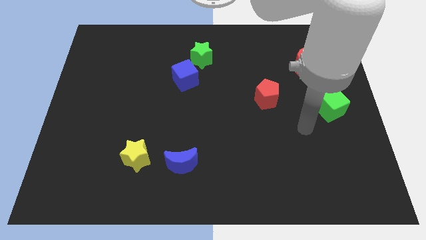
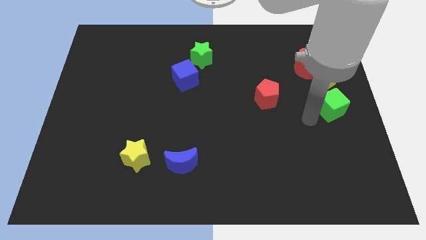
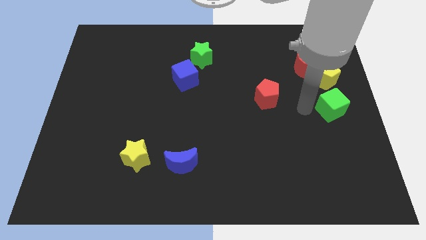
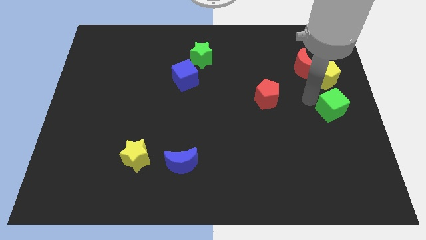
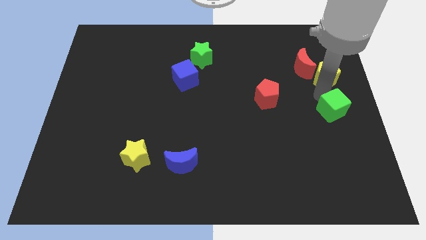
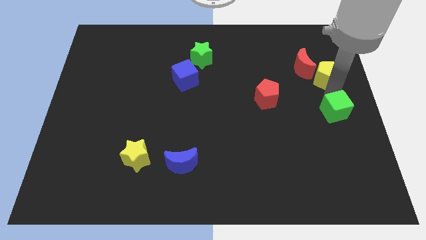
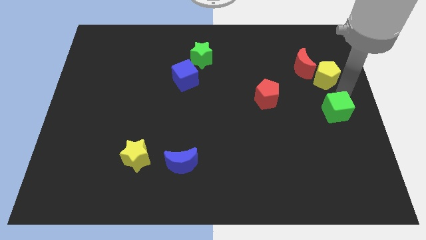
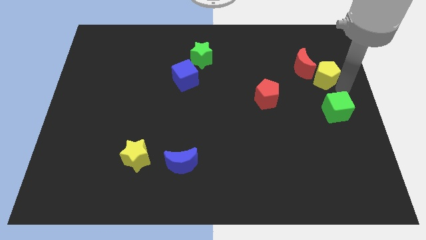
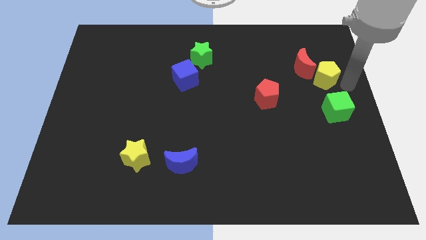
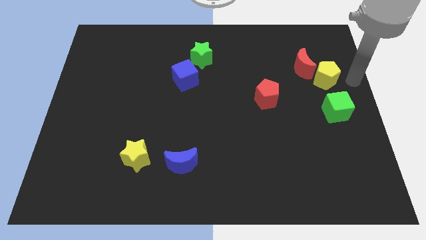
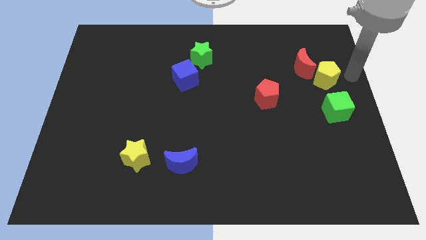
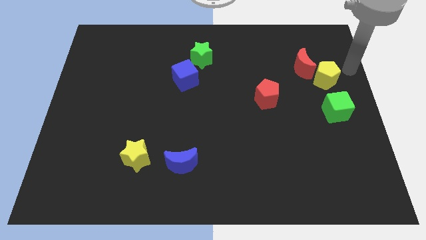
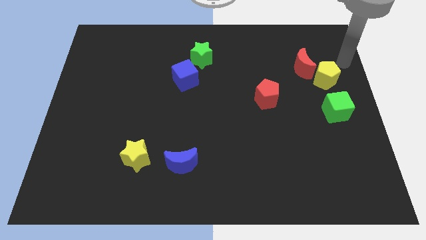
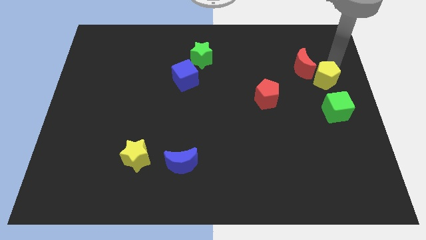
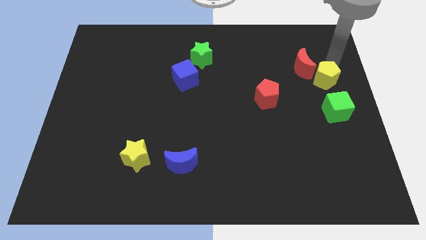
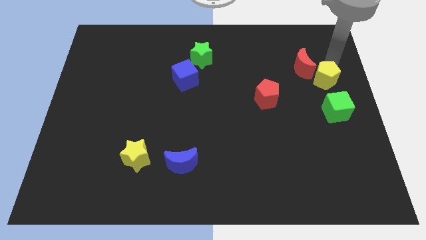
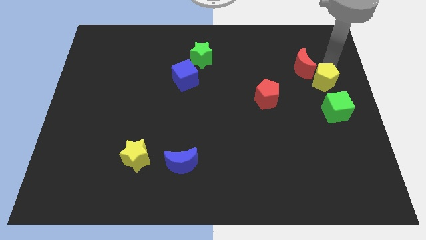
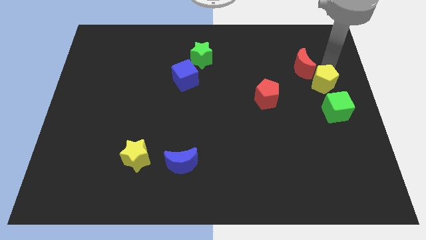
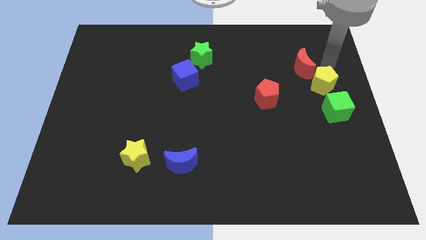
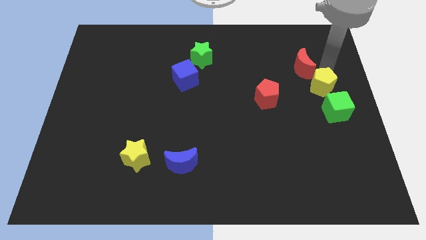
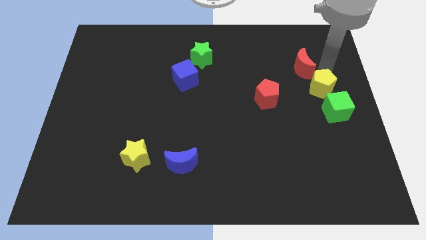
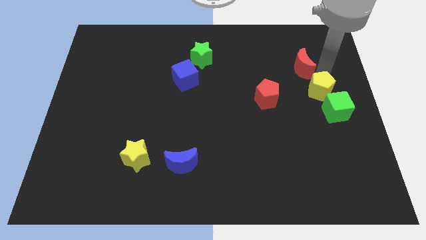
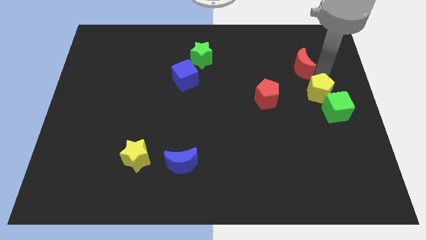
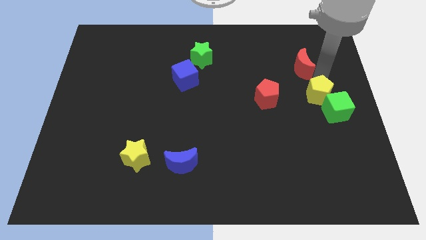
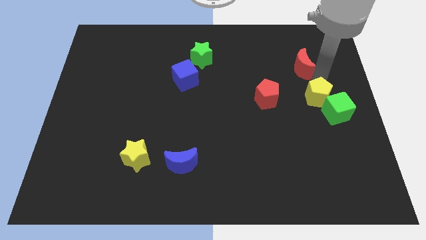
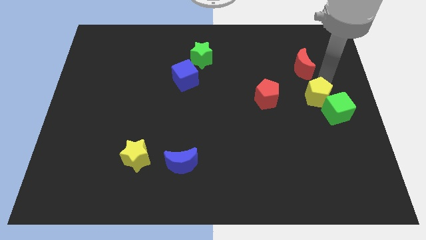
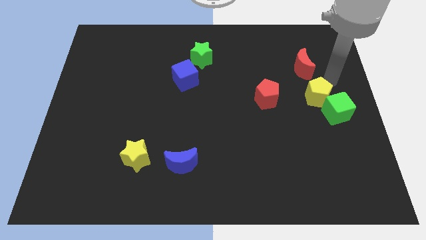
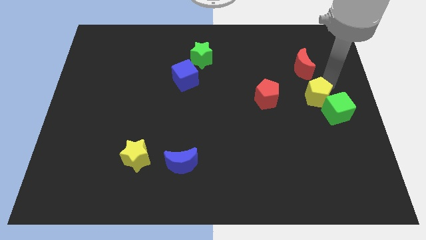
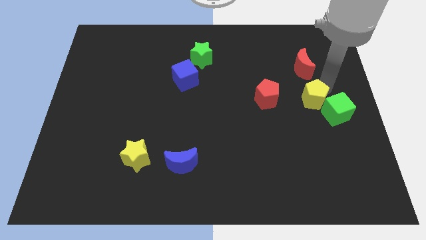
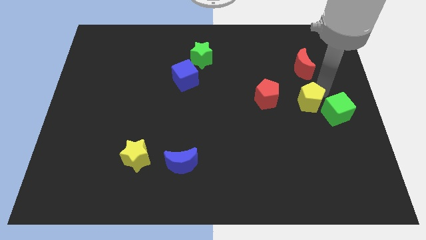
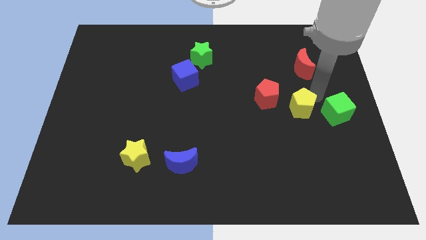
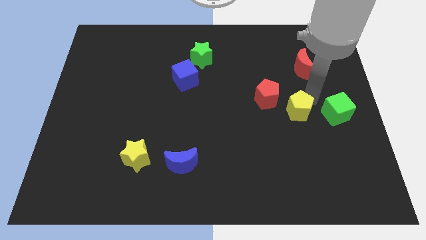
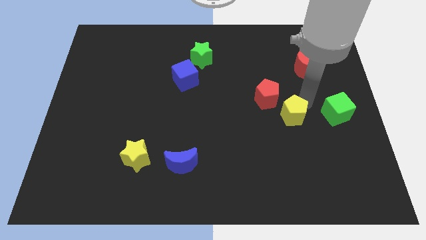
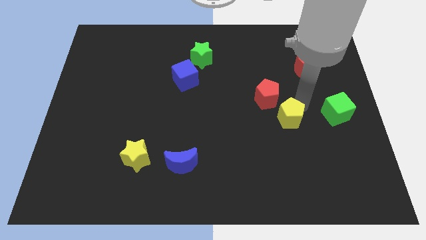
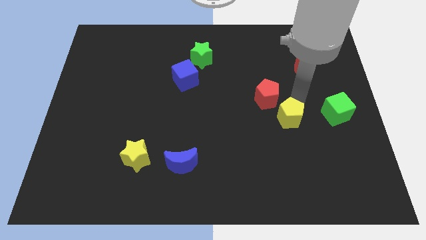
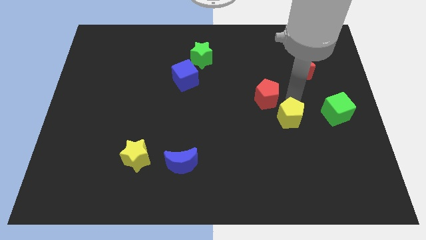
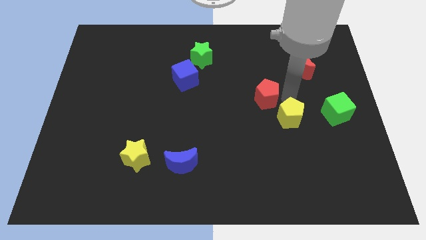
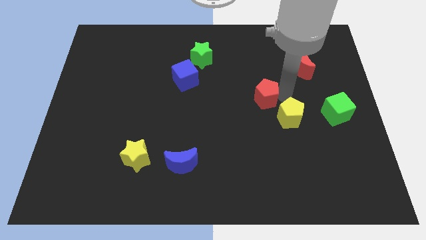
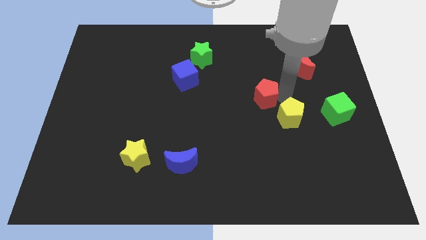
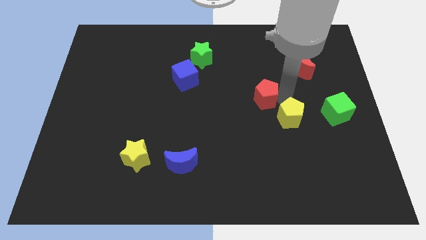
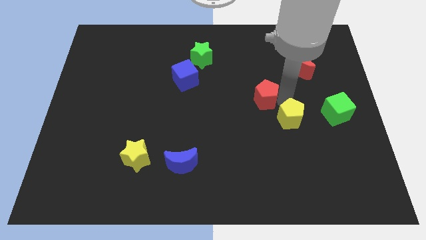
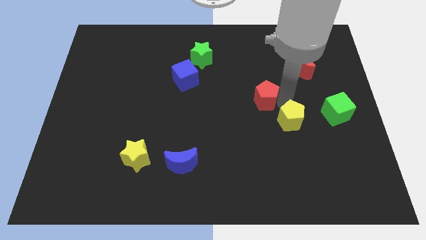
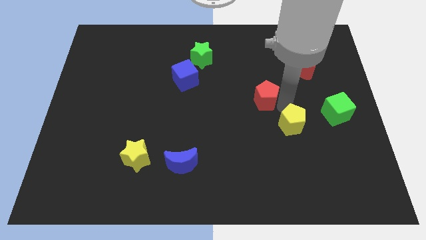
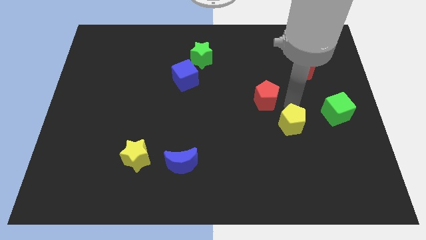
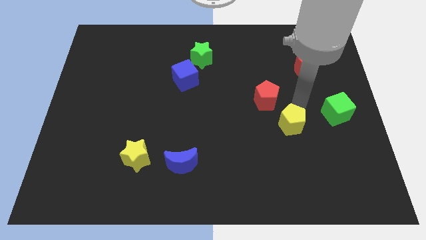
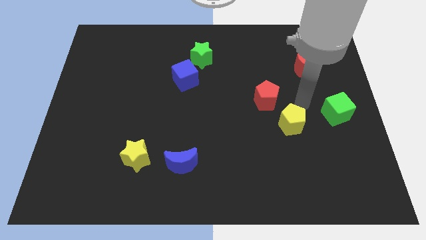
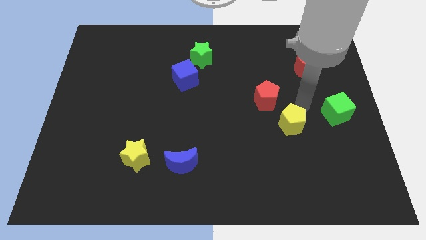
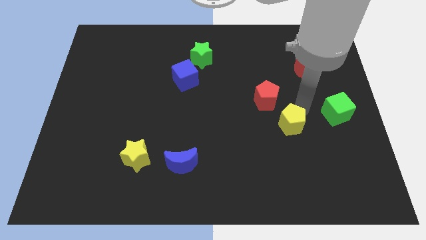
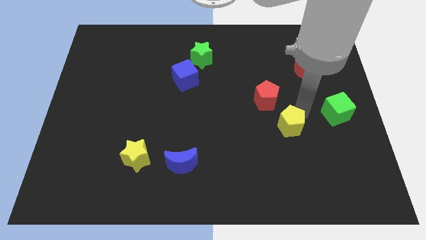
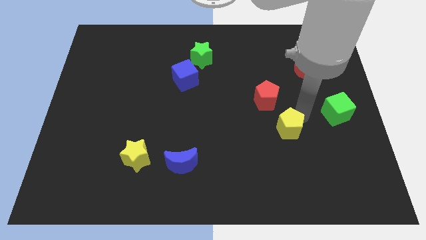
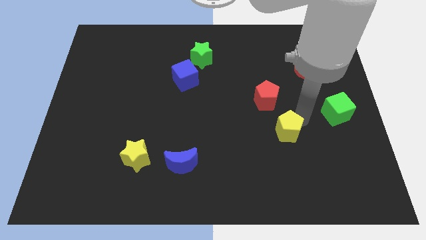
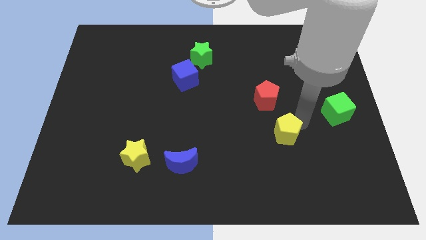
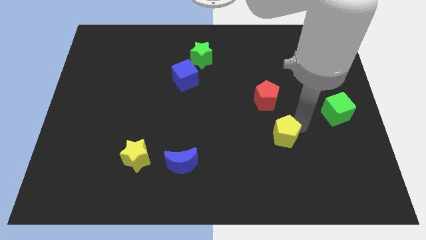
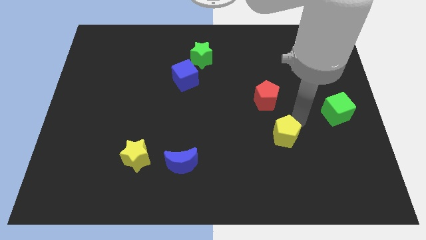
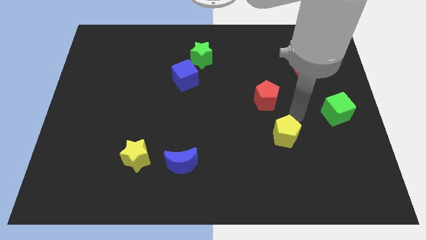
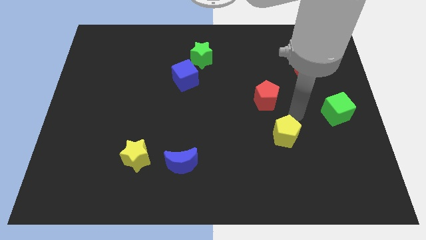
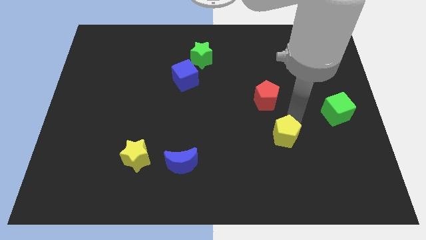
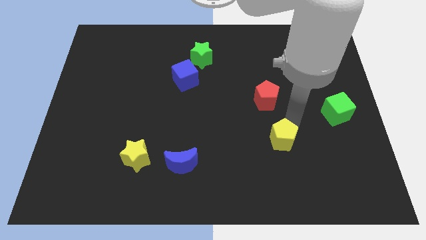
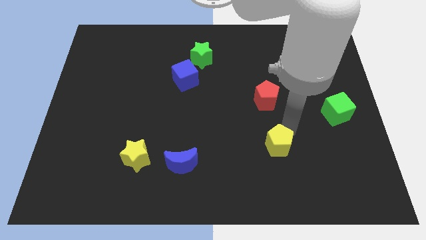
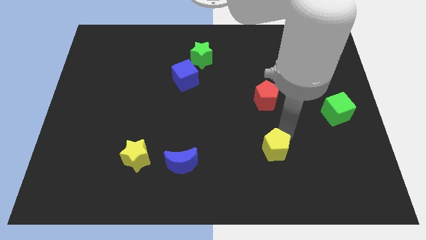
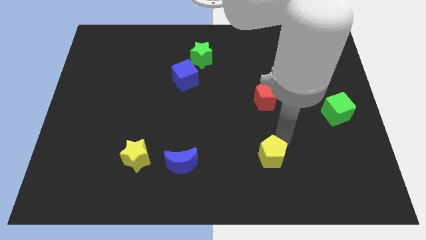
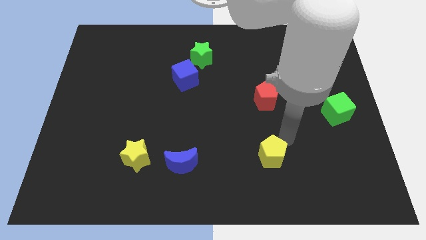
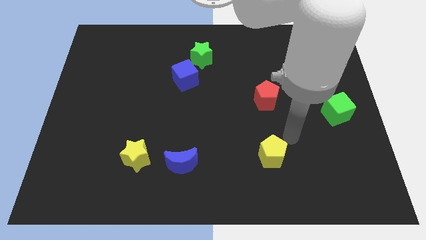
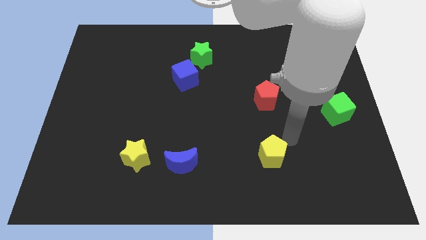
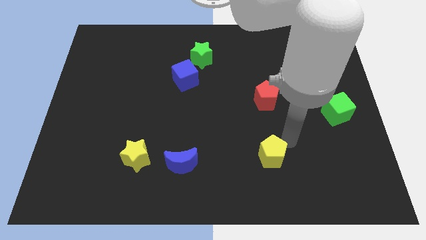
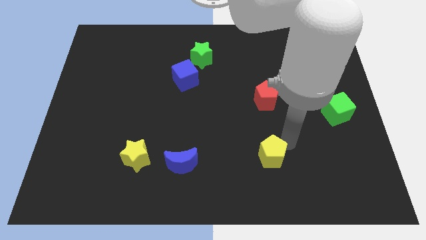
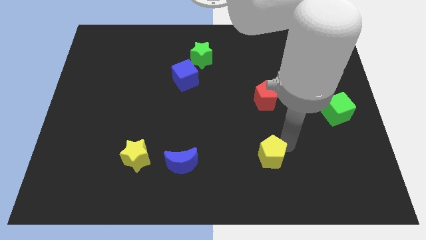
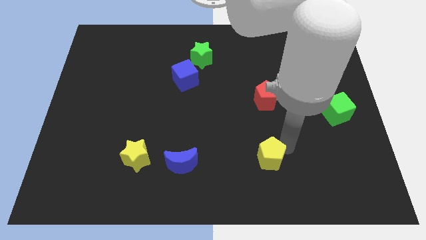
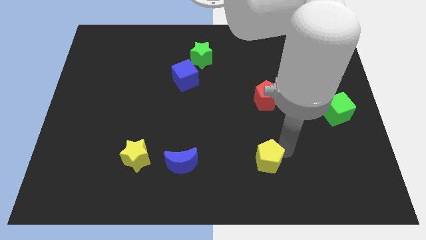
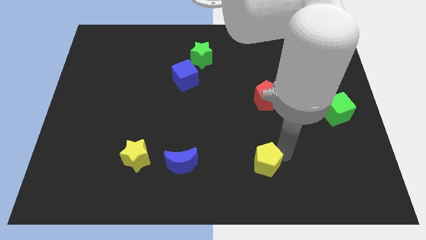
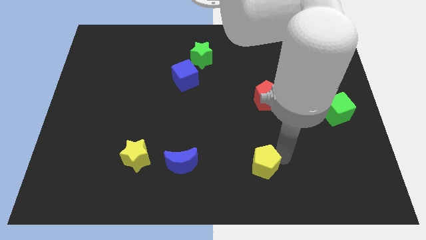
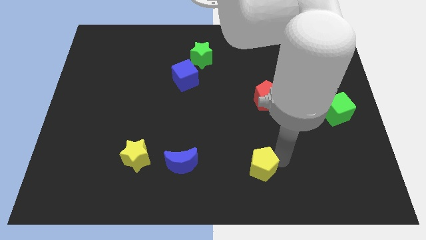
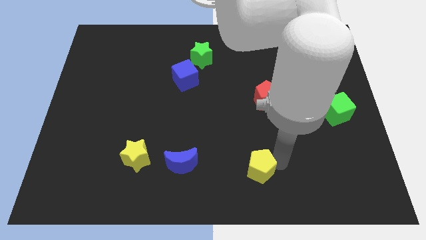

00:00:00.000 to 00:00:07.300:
push the yellow pentagon to the bottom side

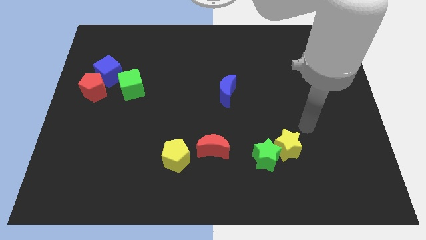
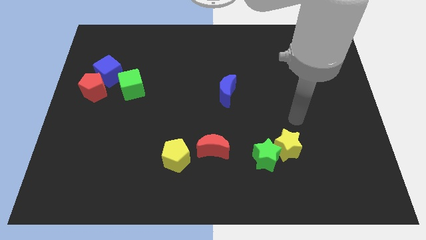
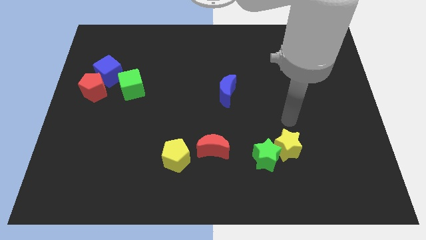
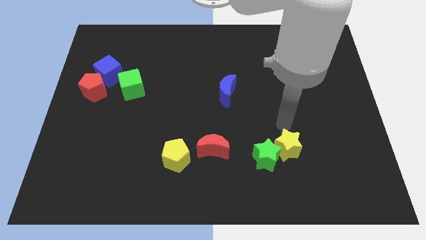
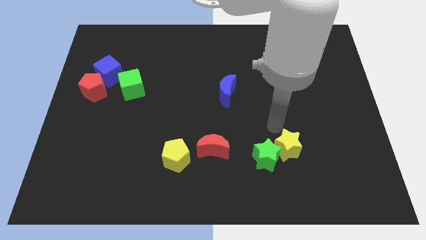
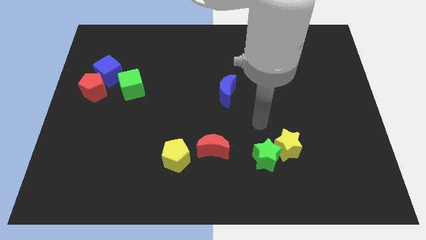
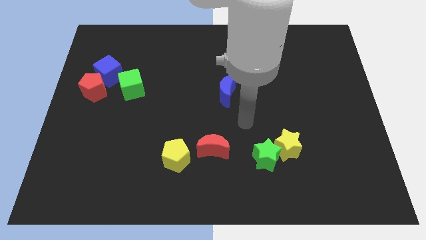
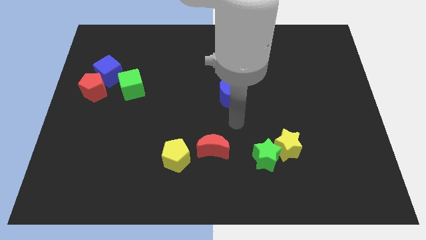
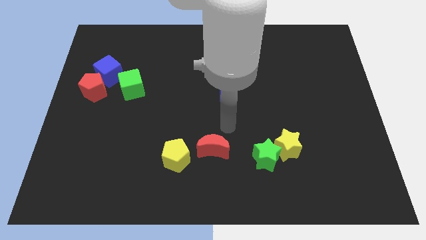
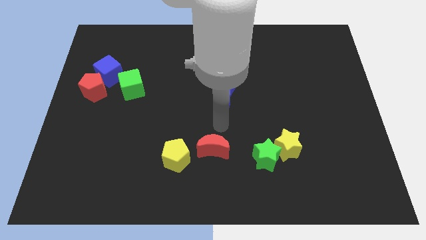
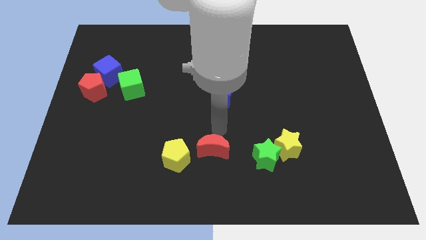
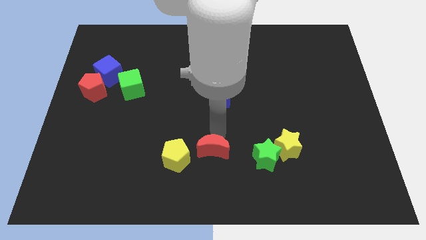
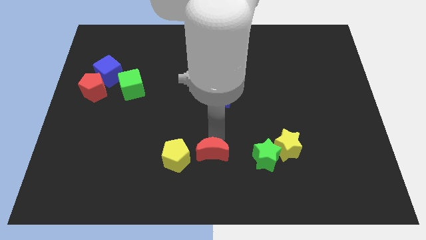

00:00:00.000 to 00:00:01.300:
slide the red moon to the bottom side
